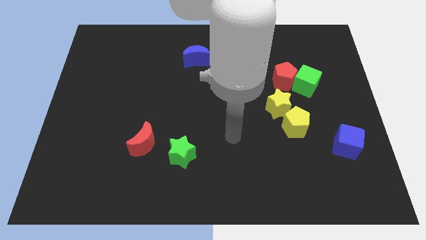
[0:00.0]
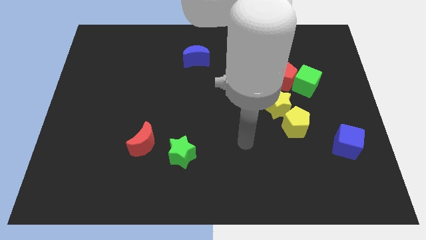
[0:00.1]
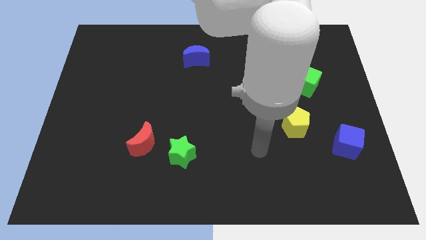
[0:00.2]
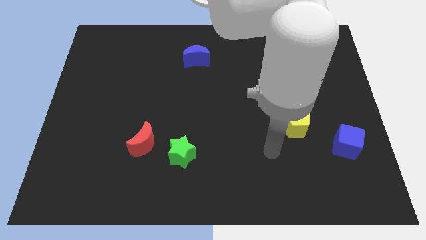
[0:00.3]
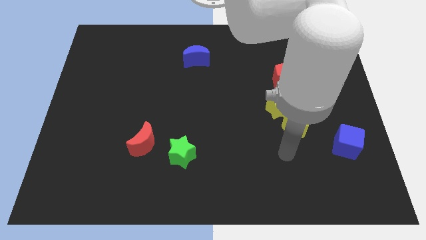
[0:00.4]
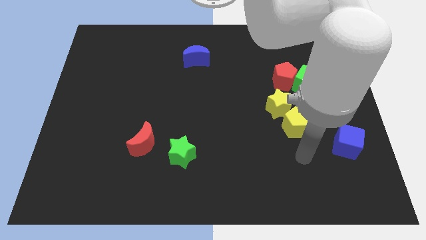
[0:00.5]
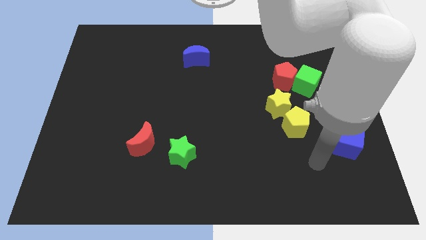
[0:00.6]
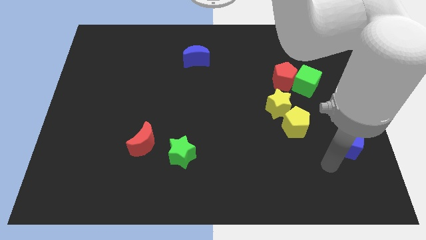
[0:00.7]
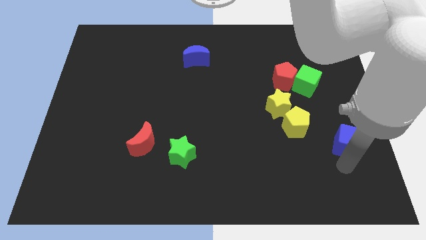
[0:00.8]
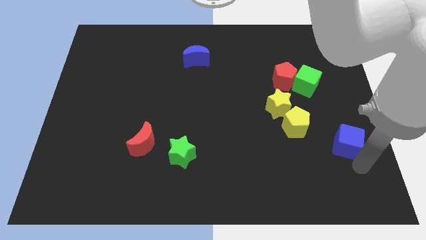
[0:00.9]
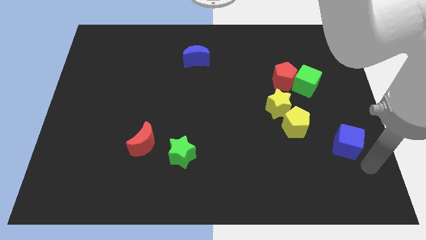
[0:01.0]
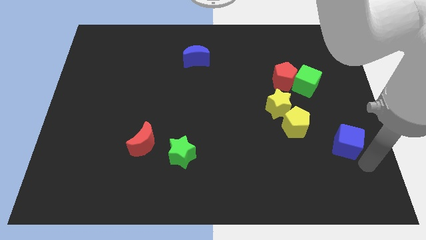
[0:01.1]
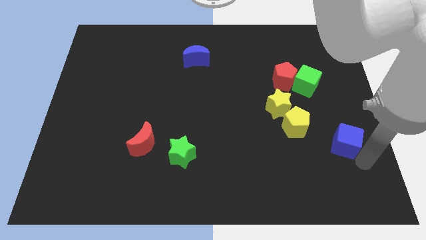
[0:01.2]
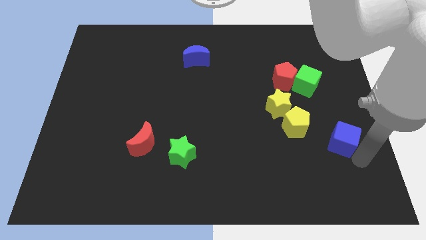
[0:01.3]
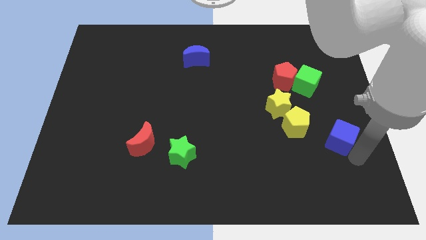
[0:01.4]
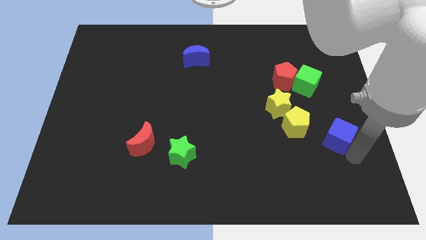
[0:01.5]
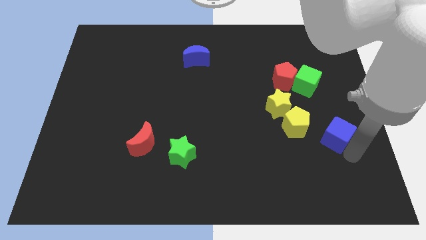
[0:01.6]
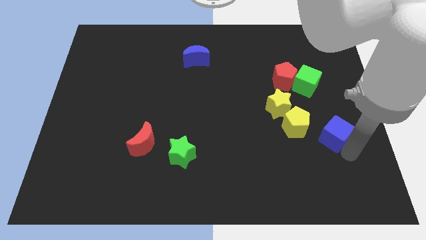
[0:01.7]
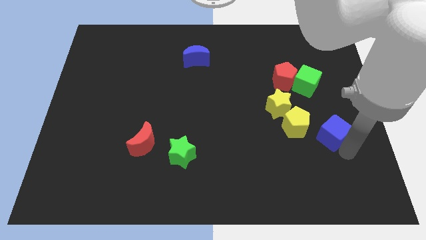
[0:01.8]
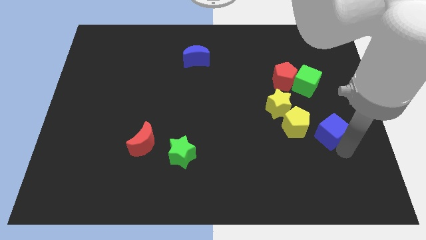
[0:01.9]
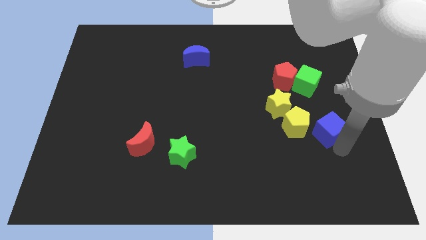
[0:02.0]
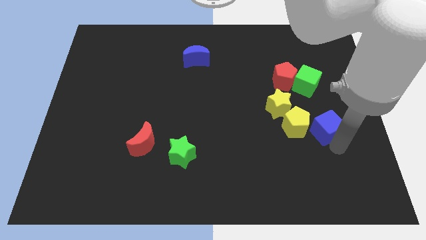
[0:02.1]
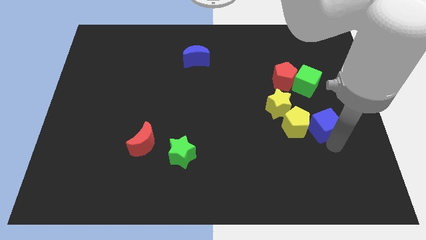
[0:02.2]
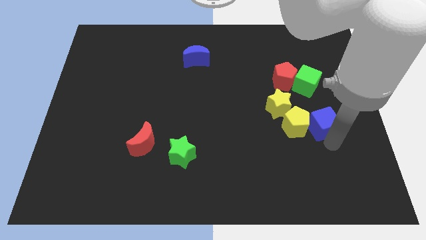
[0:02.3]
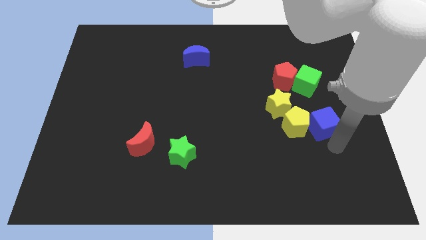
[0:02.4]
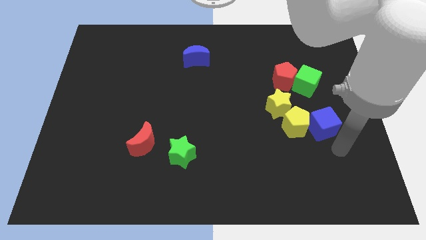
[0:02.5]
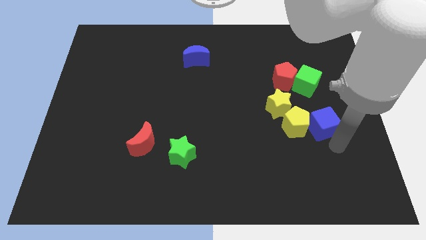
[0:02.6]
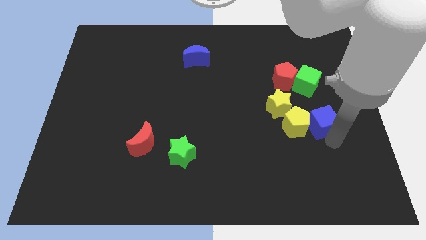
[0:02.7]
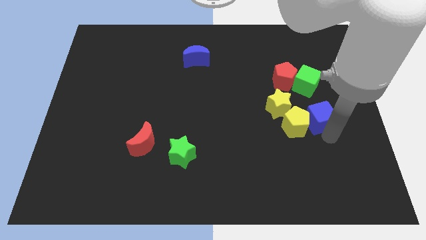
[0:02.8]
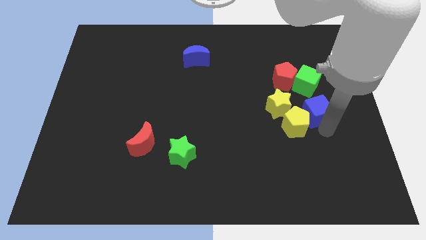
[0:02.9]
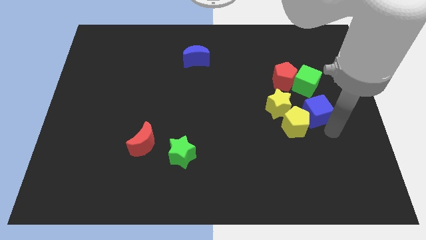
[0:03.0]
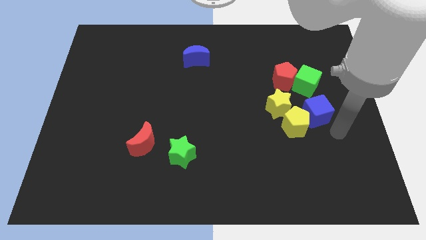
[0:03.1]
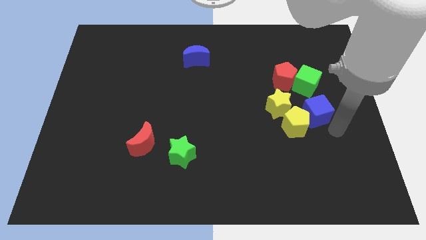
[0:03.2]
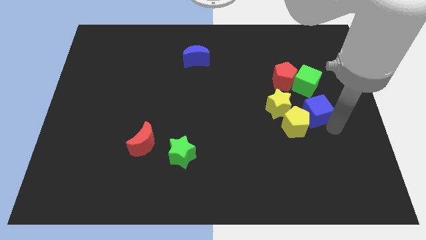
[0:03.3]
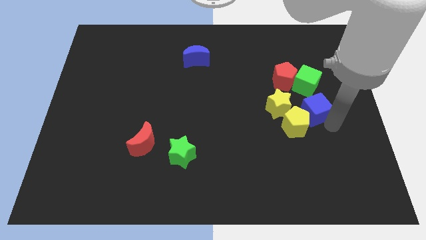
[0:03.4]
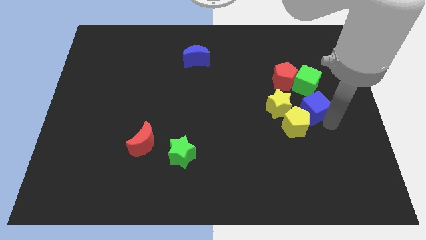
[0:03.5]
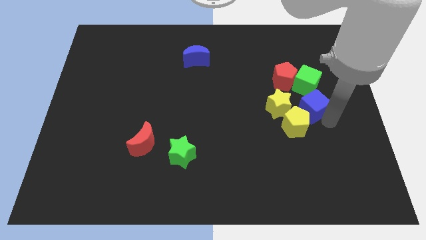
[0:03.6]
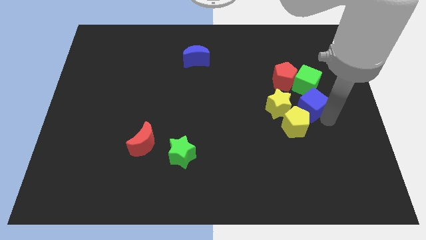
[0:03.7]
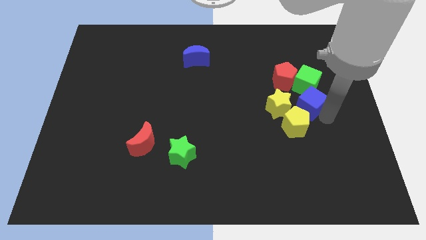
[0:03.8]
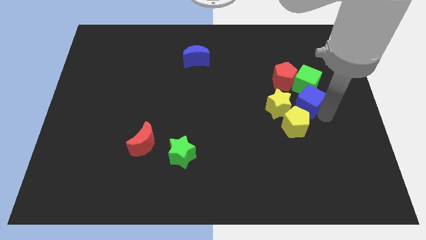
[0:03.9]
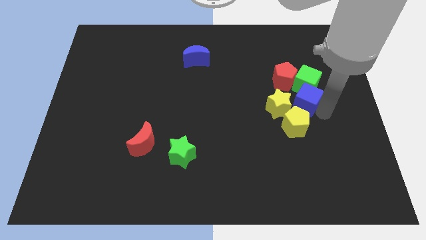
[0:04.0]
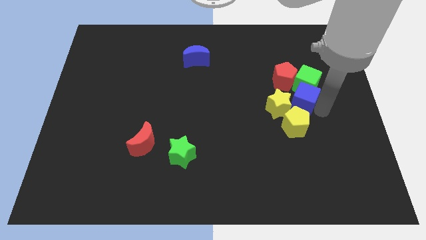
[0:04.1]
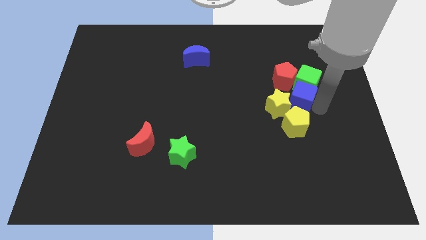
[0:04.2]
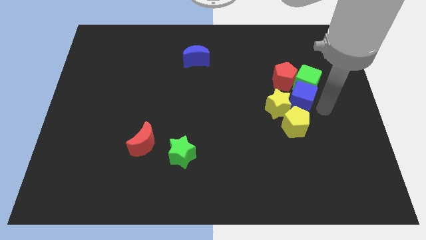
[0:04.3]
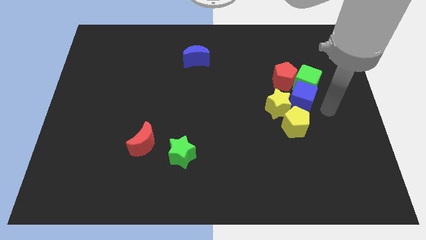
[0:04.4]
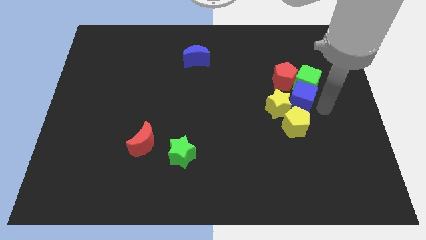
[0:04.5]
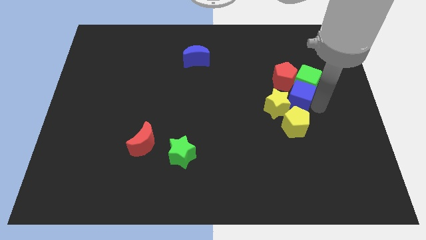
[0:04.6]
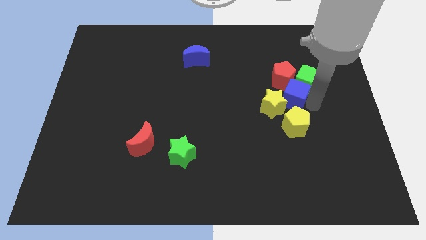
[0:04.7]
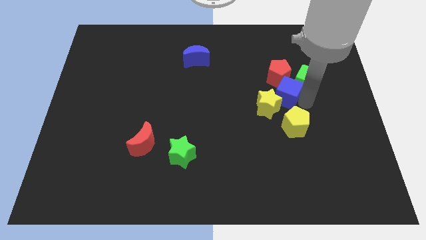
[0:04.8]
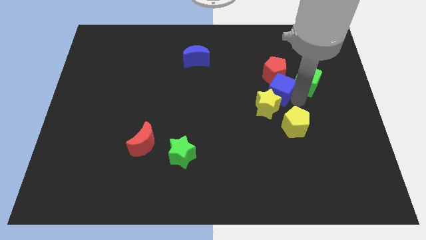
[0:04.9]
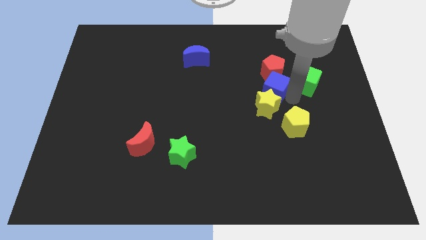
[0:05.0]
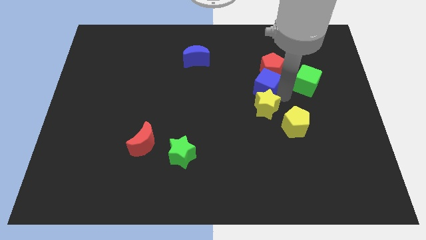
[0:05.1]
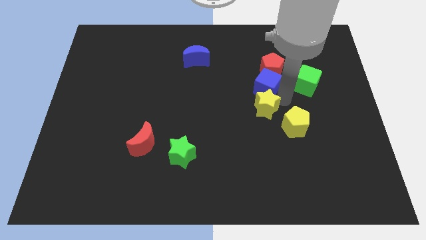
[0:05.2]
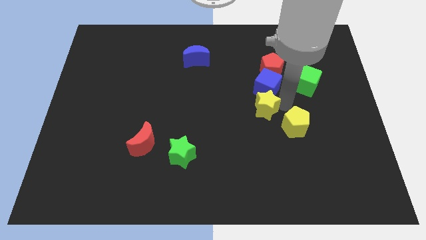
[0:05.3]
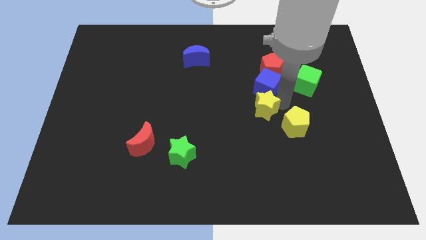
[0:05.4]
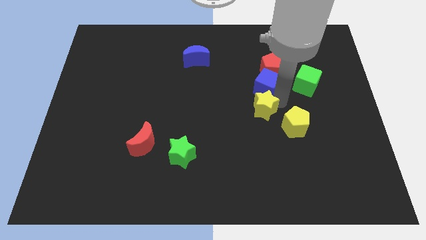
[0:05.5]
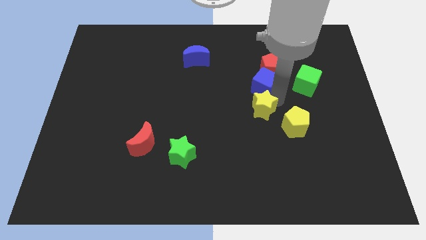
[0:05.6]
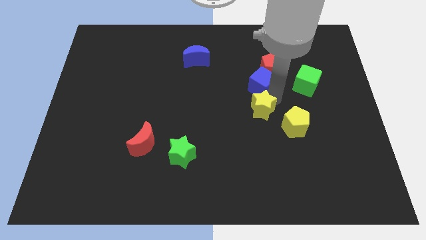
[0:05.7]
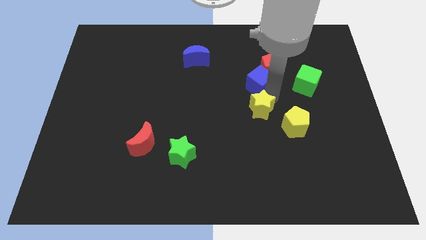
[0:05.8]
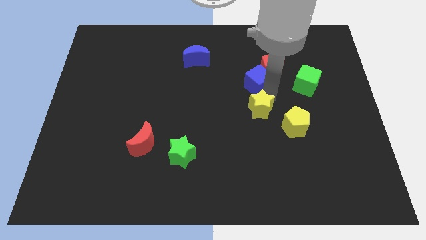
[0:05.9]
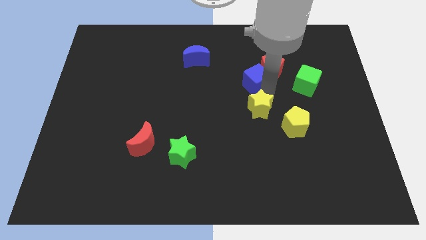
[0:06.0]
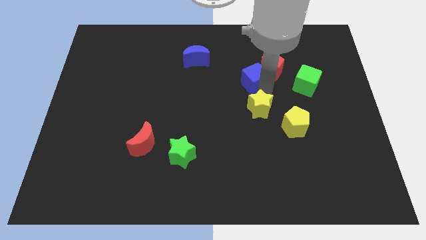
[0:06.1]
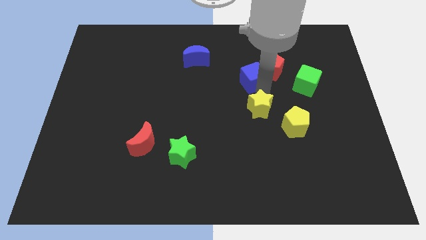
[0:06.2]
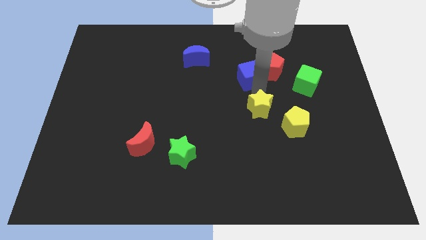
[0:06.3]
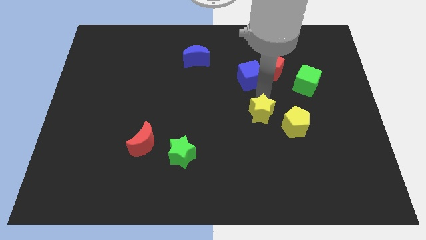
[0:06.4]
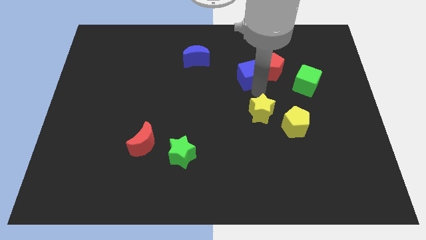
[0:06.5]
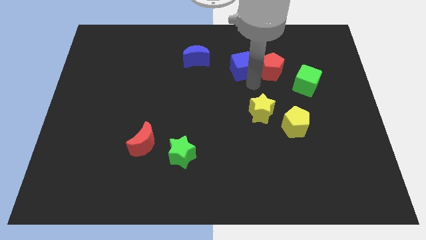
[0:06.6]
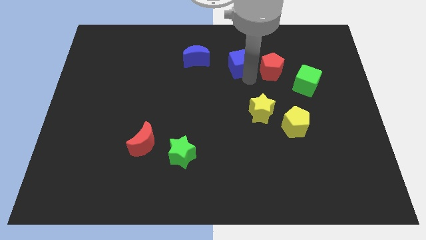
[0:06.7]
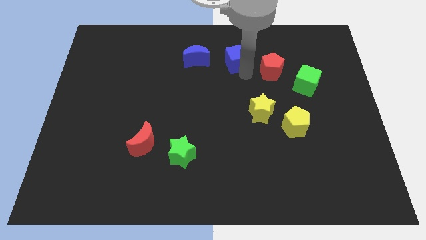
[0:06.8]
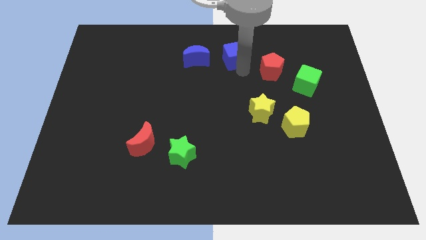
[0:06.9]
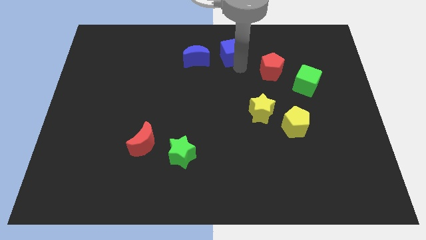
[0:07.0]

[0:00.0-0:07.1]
move the blue cube to the top
